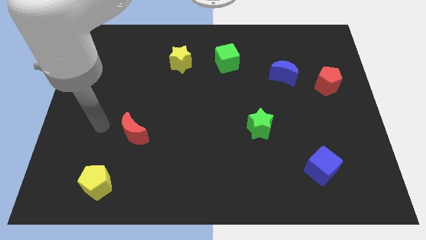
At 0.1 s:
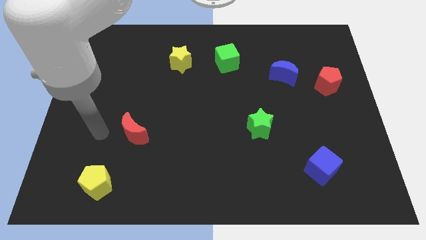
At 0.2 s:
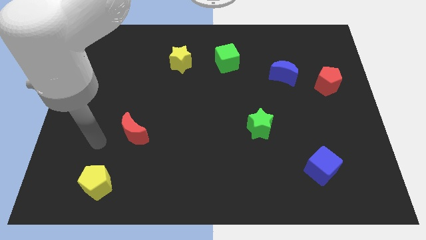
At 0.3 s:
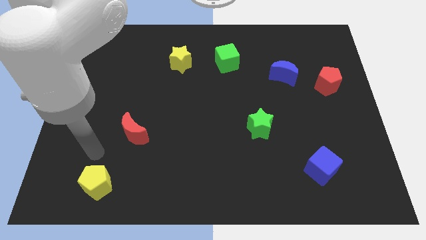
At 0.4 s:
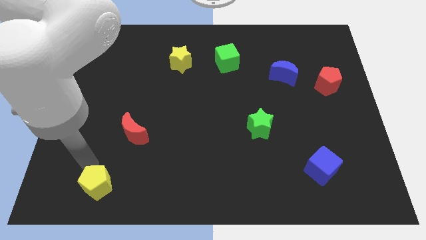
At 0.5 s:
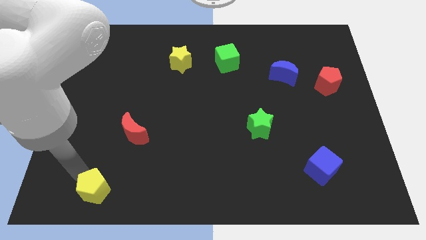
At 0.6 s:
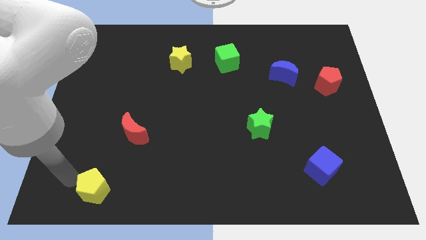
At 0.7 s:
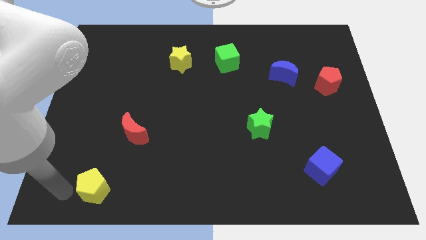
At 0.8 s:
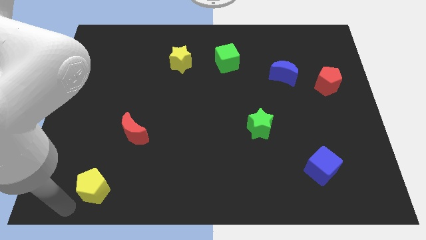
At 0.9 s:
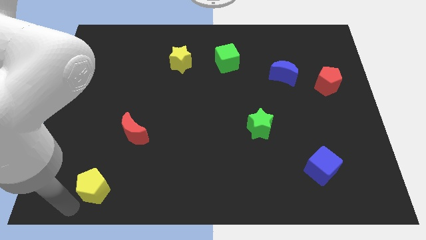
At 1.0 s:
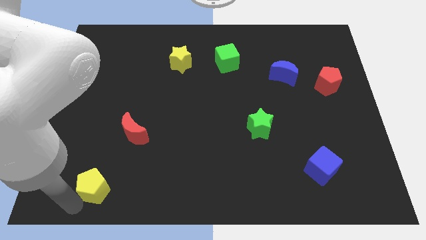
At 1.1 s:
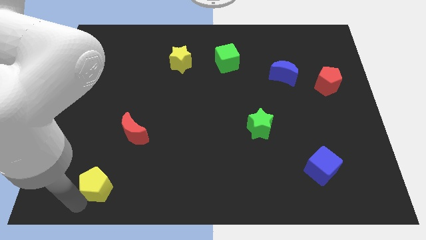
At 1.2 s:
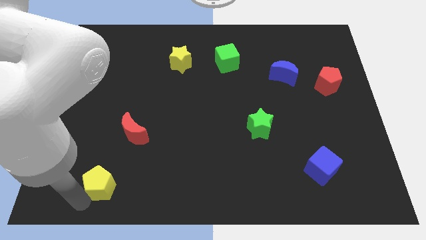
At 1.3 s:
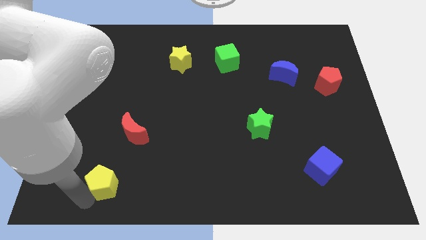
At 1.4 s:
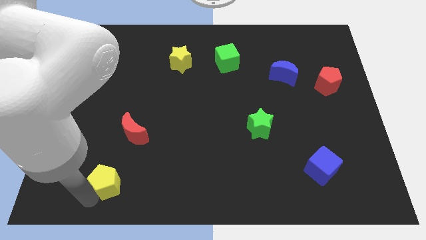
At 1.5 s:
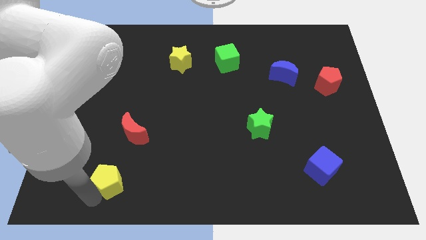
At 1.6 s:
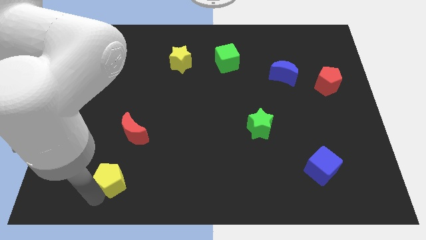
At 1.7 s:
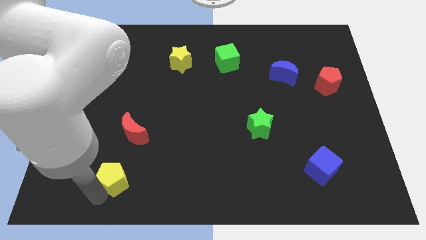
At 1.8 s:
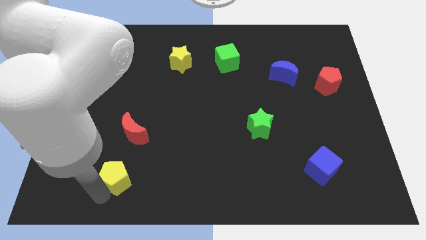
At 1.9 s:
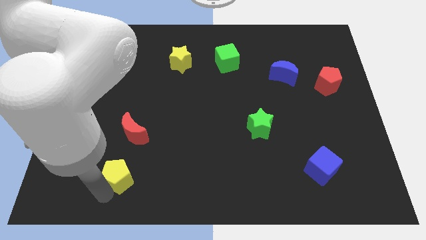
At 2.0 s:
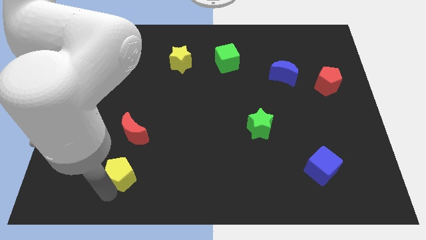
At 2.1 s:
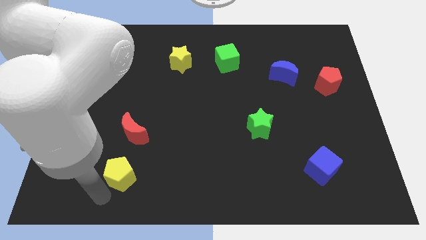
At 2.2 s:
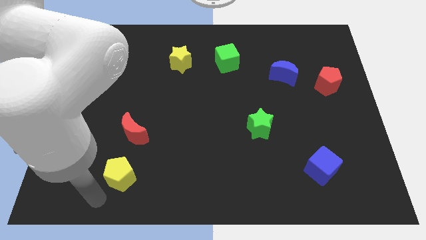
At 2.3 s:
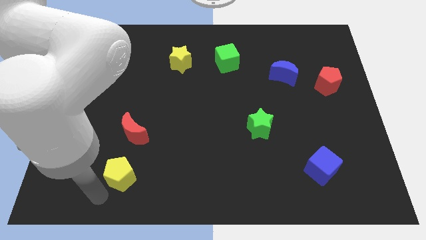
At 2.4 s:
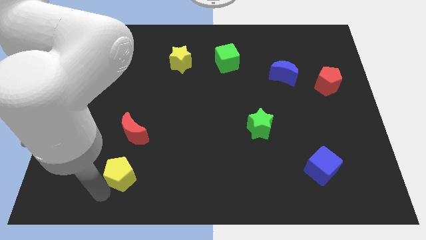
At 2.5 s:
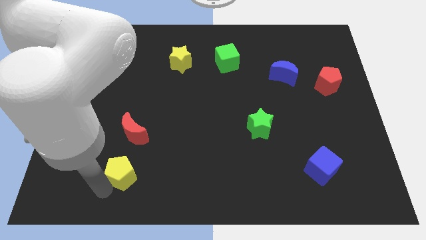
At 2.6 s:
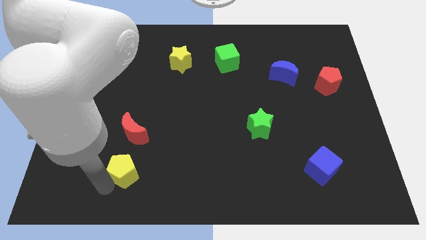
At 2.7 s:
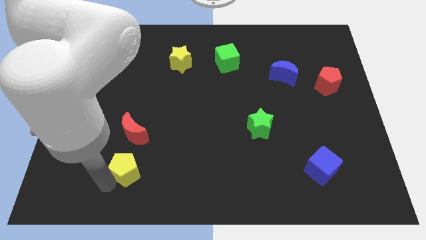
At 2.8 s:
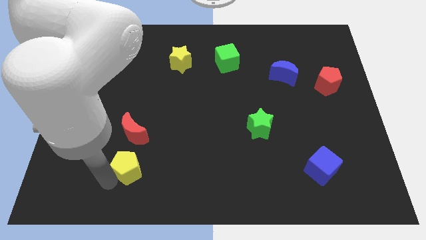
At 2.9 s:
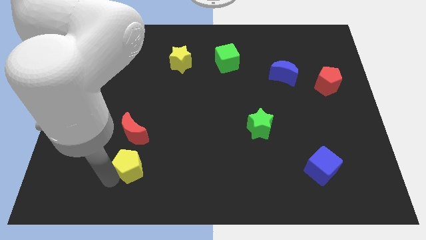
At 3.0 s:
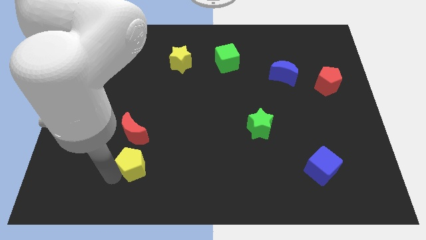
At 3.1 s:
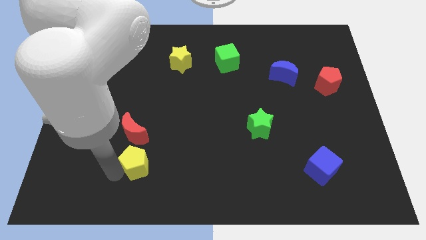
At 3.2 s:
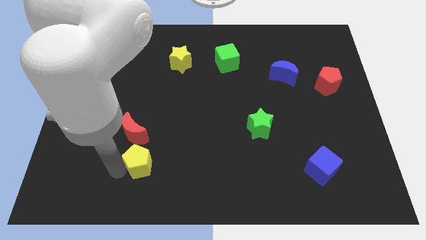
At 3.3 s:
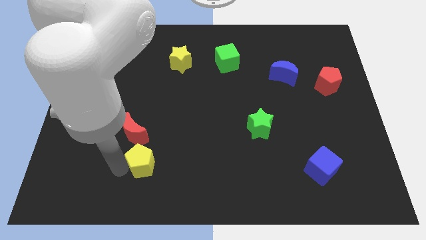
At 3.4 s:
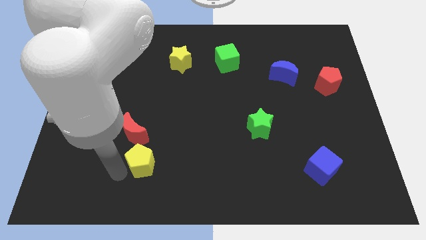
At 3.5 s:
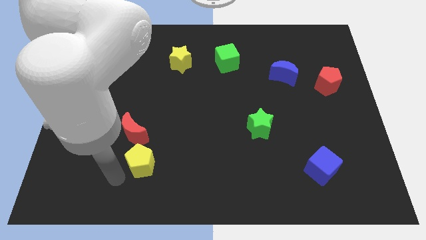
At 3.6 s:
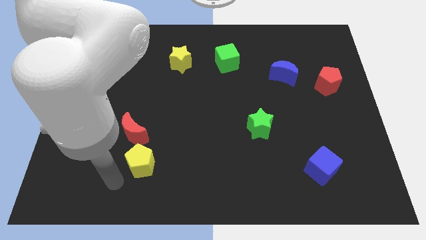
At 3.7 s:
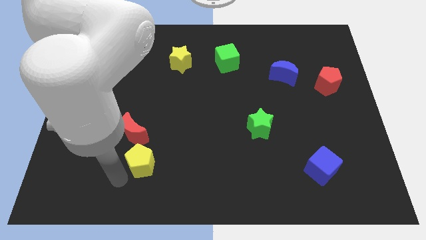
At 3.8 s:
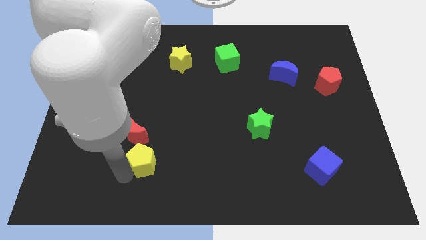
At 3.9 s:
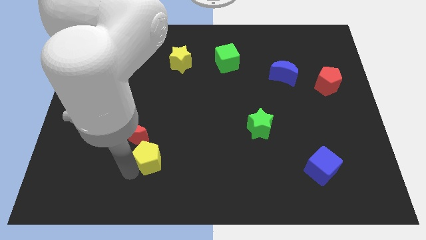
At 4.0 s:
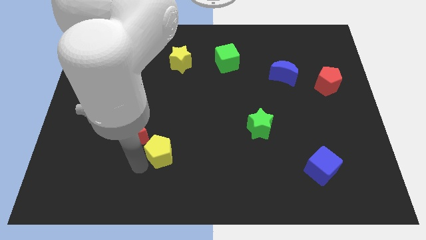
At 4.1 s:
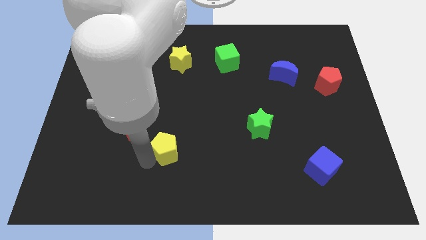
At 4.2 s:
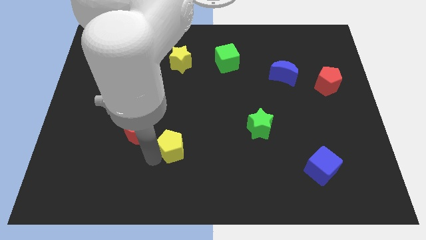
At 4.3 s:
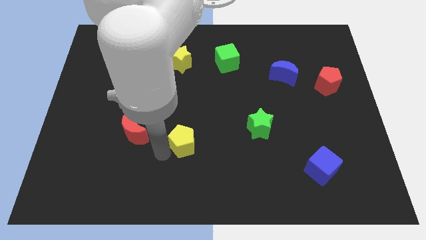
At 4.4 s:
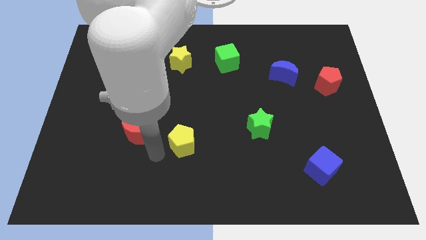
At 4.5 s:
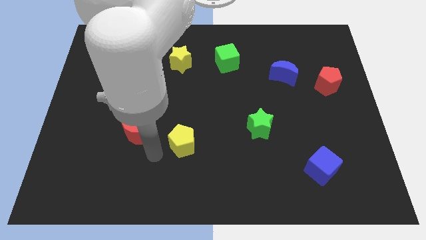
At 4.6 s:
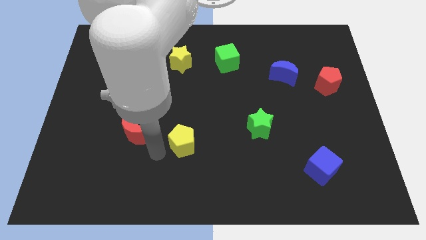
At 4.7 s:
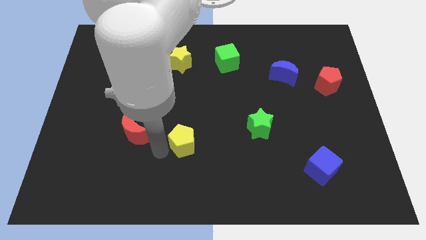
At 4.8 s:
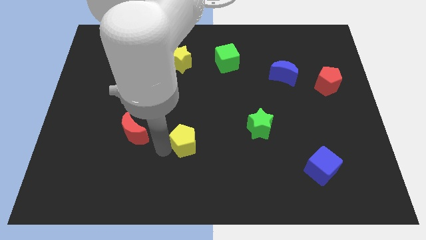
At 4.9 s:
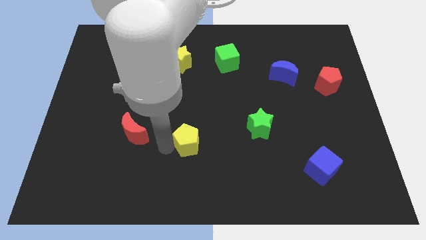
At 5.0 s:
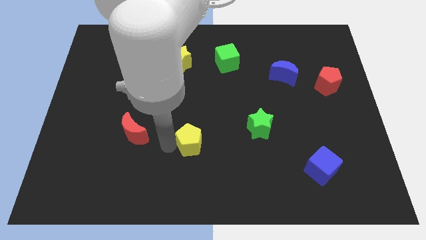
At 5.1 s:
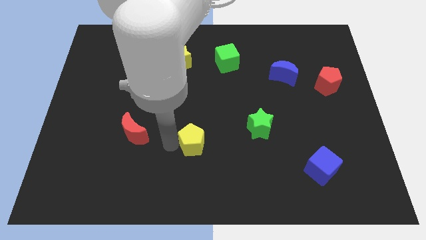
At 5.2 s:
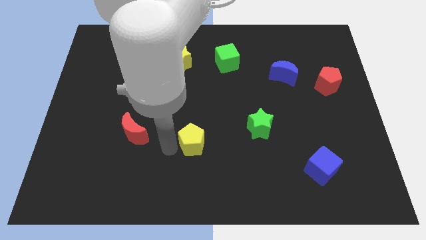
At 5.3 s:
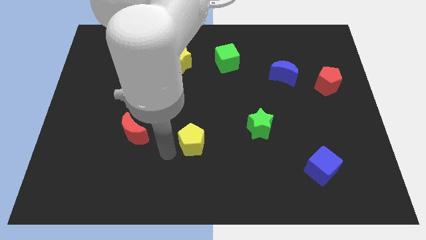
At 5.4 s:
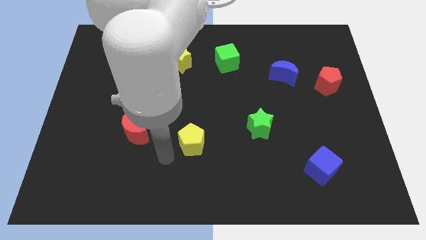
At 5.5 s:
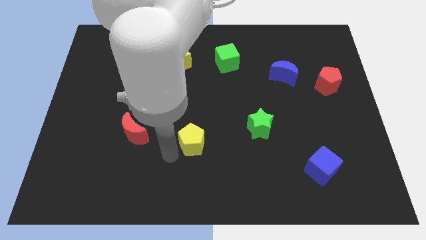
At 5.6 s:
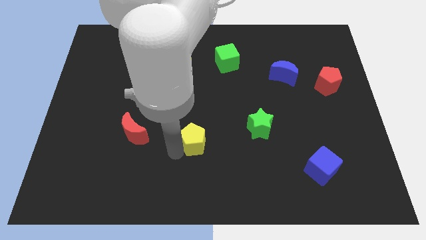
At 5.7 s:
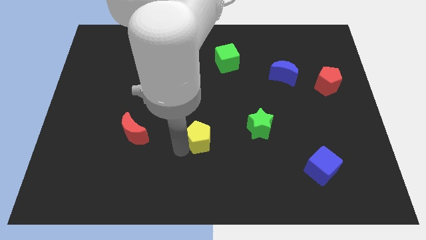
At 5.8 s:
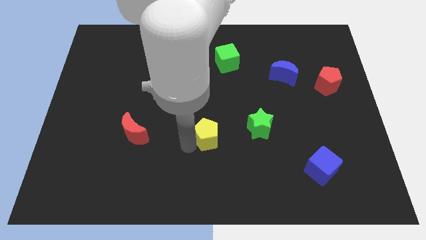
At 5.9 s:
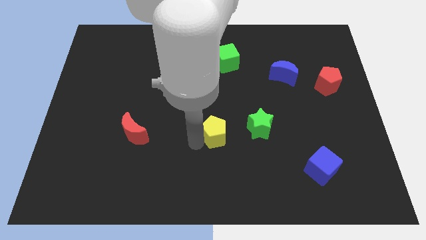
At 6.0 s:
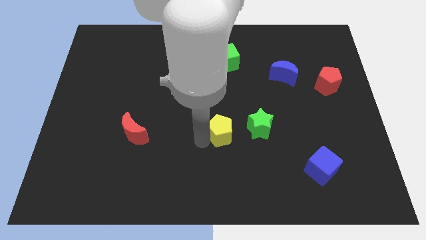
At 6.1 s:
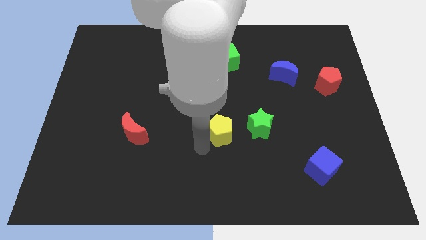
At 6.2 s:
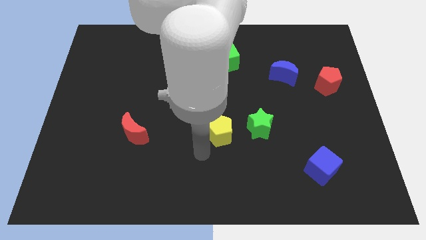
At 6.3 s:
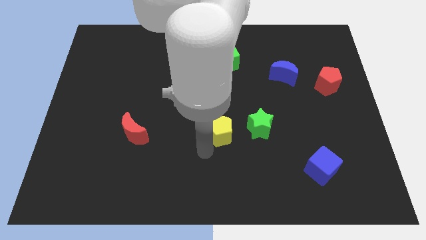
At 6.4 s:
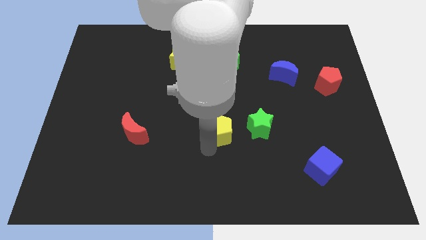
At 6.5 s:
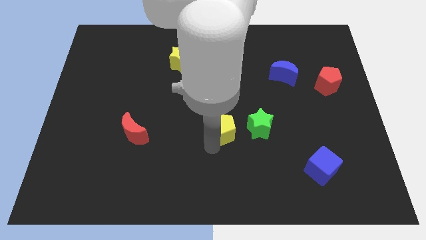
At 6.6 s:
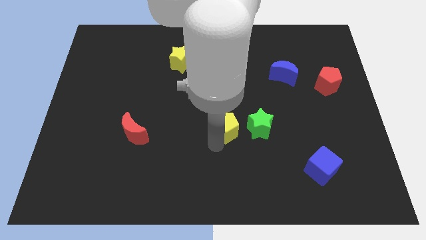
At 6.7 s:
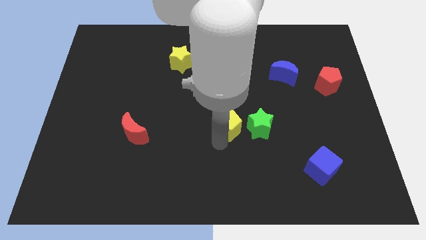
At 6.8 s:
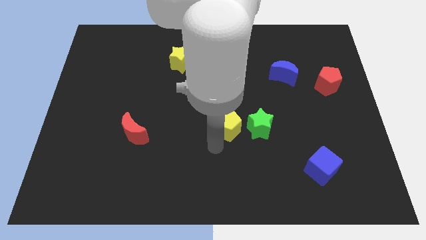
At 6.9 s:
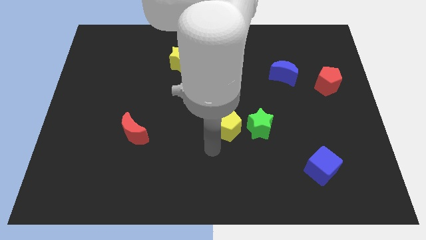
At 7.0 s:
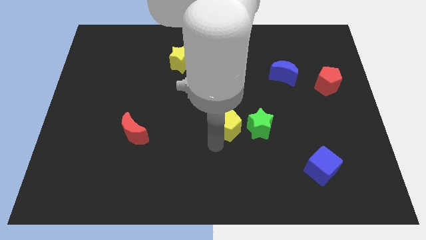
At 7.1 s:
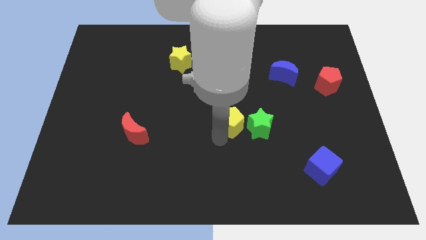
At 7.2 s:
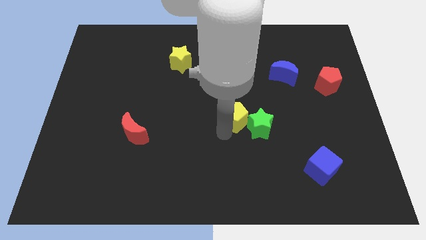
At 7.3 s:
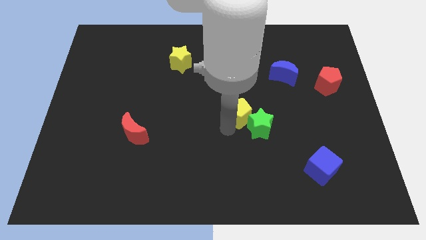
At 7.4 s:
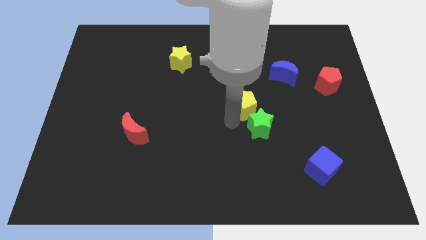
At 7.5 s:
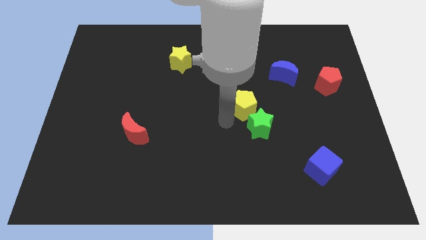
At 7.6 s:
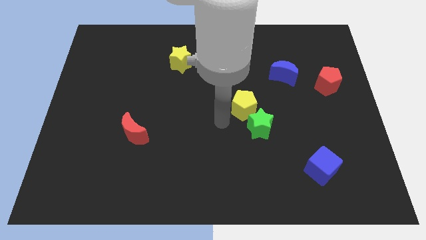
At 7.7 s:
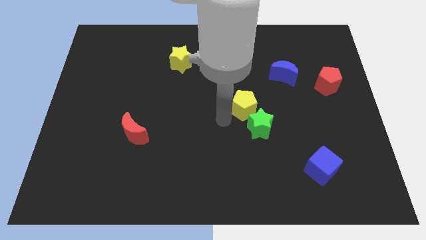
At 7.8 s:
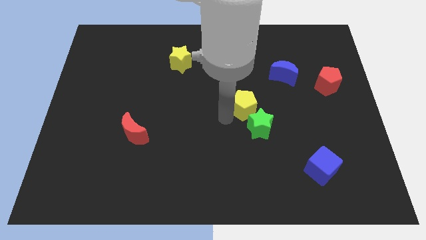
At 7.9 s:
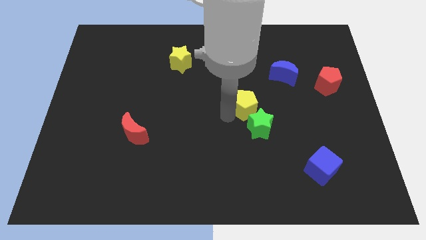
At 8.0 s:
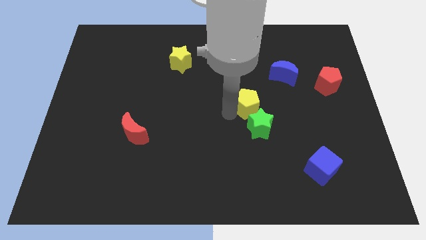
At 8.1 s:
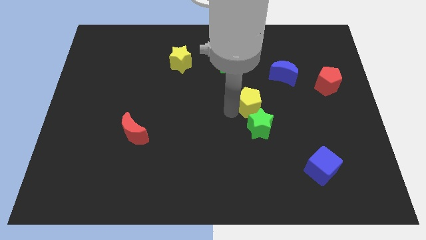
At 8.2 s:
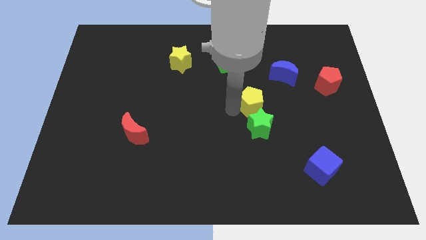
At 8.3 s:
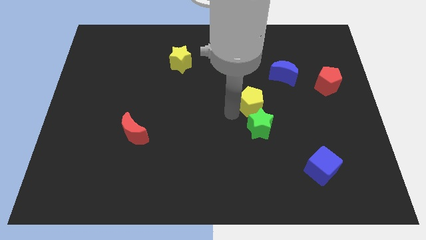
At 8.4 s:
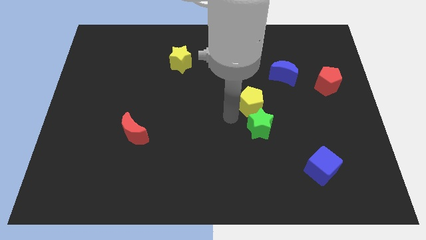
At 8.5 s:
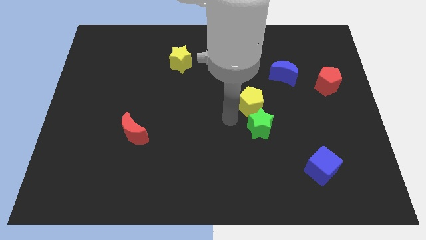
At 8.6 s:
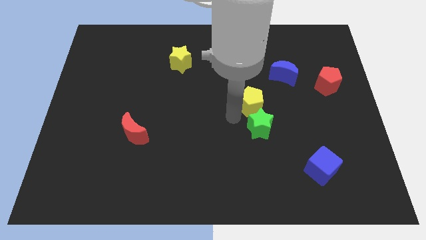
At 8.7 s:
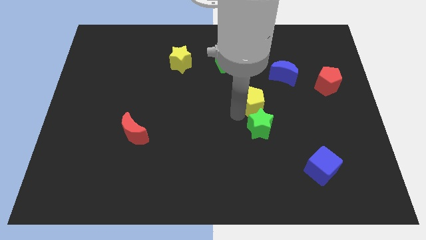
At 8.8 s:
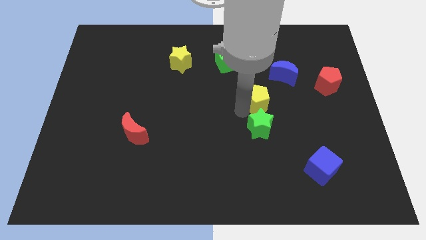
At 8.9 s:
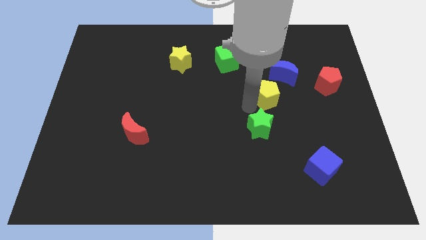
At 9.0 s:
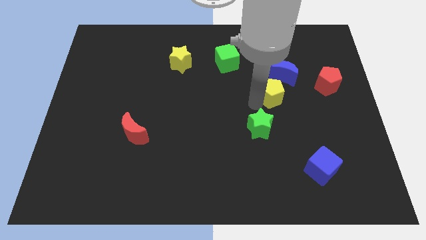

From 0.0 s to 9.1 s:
push the yellow pentagon to the left side of the red pentagon
